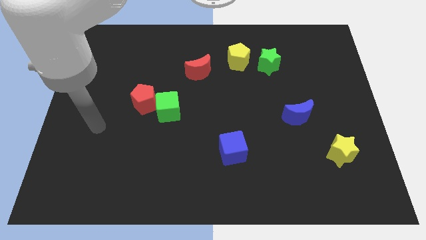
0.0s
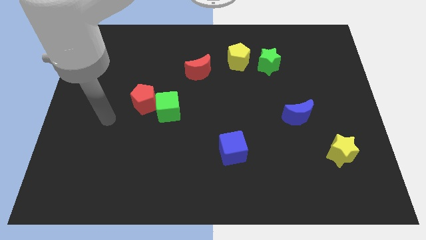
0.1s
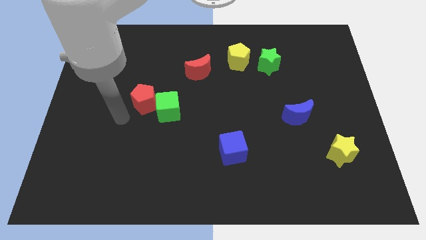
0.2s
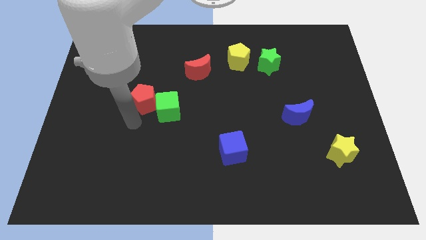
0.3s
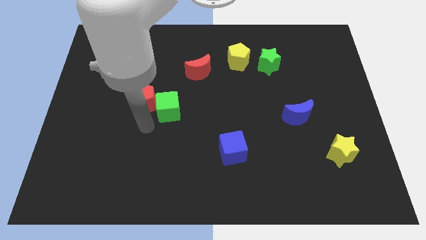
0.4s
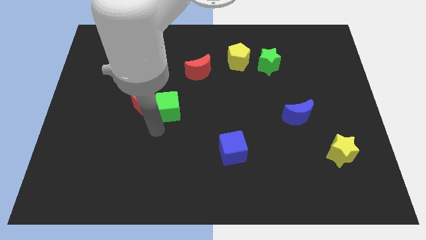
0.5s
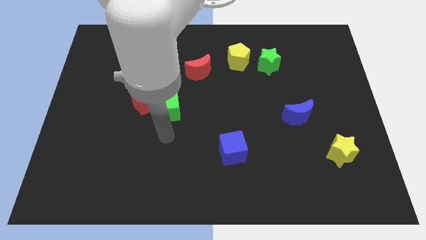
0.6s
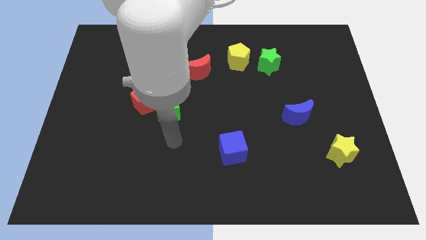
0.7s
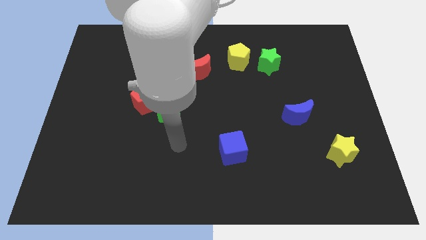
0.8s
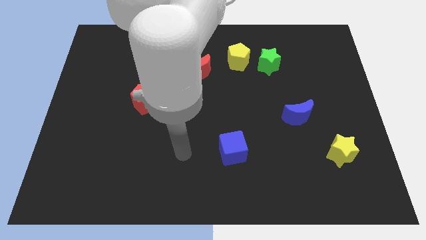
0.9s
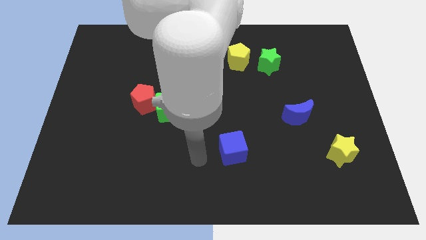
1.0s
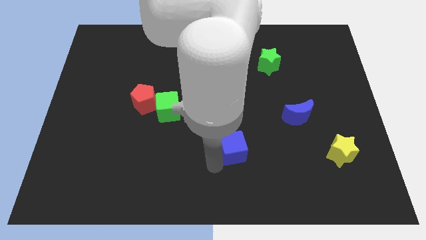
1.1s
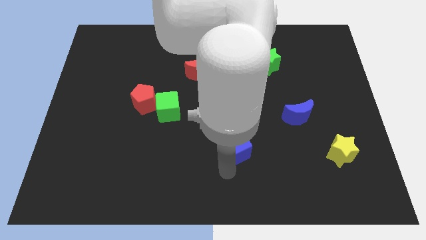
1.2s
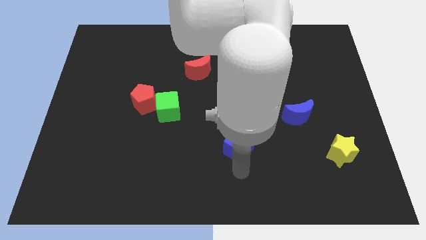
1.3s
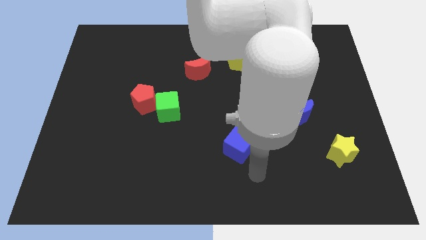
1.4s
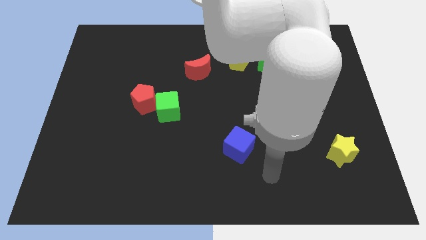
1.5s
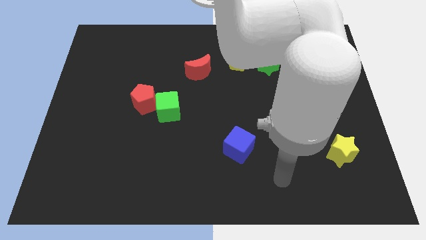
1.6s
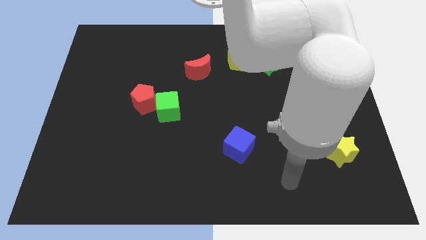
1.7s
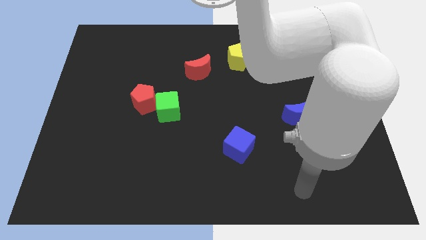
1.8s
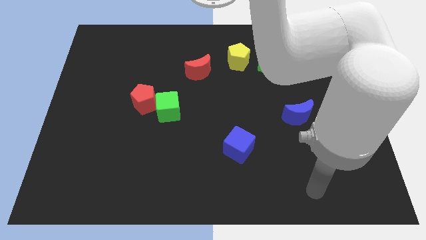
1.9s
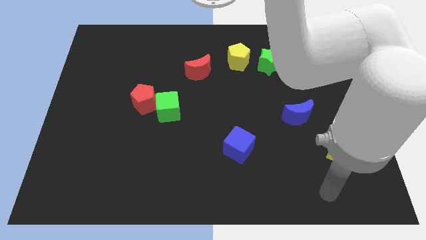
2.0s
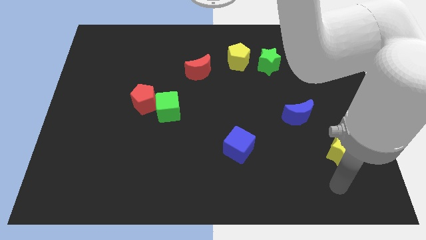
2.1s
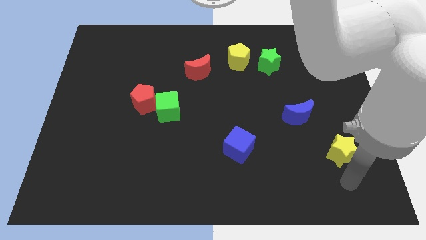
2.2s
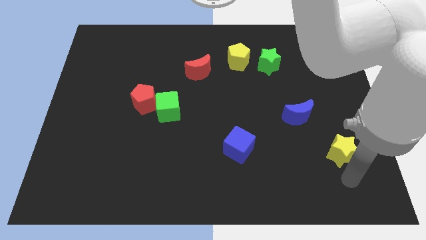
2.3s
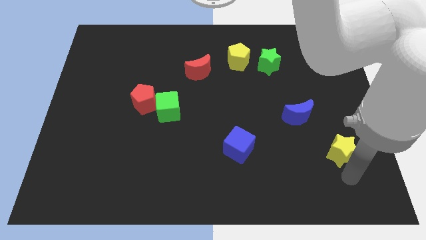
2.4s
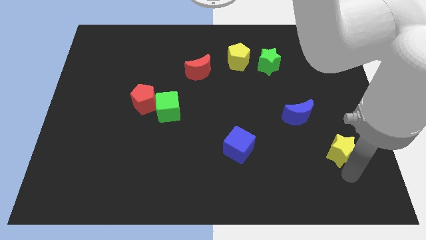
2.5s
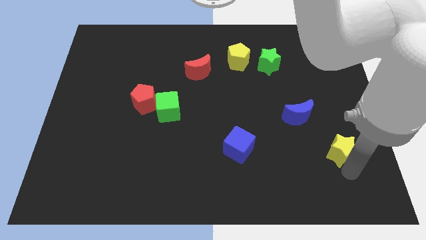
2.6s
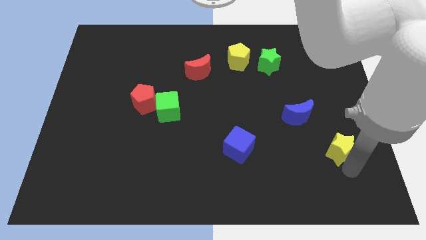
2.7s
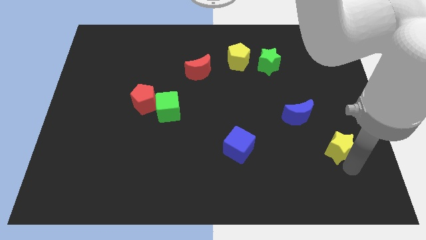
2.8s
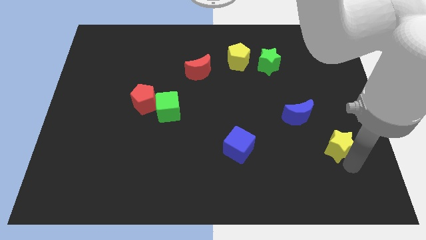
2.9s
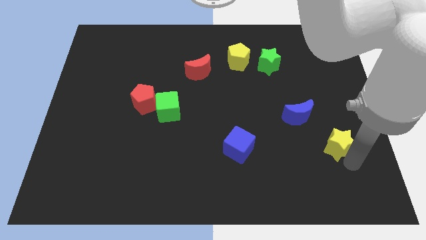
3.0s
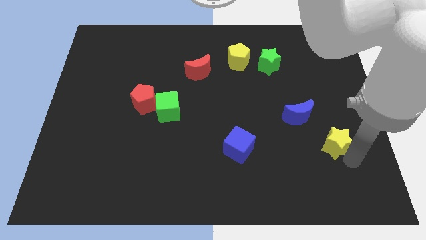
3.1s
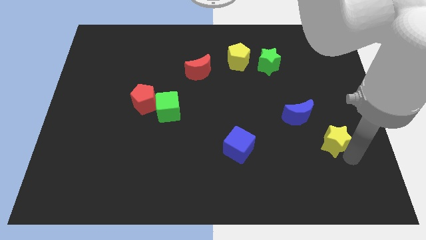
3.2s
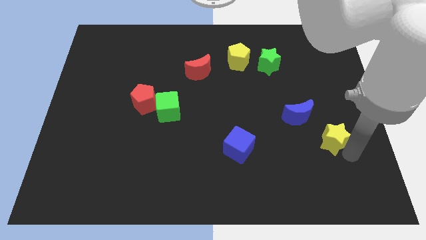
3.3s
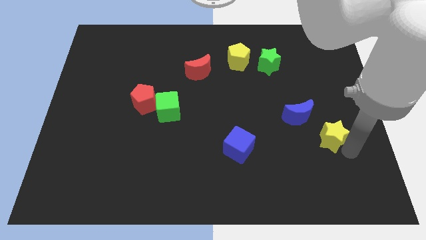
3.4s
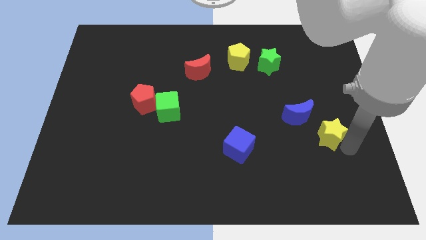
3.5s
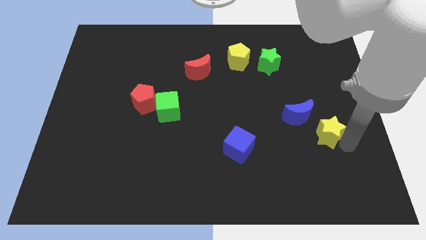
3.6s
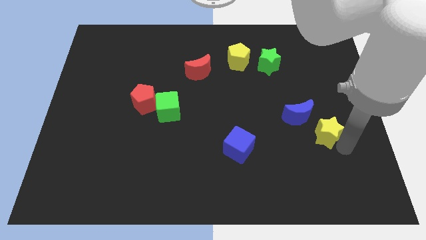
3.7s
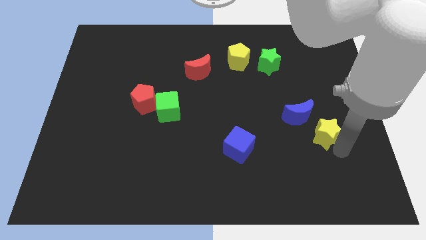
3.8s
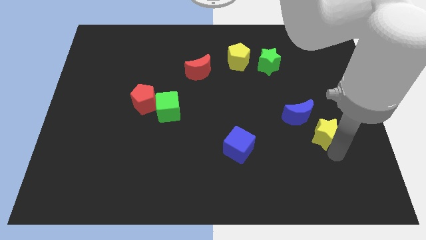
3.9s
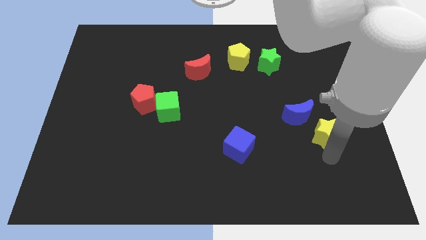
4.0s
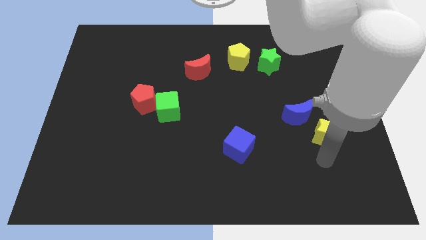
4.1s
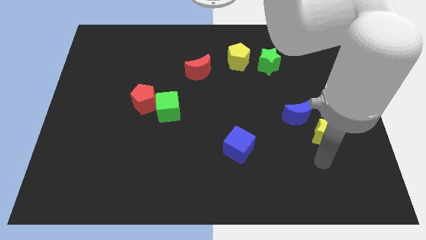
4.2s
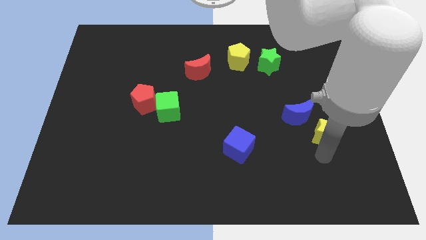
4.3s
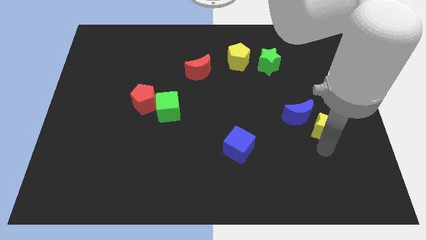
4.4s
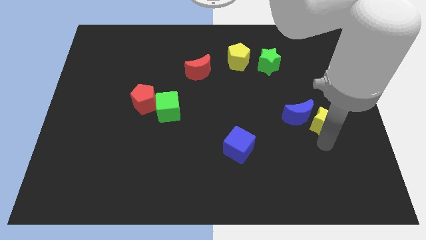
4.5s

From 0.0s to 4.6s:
push the yellow star up a little

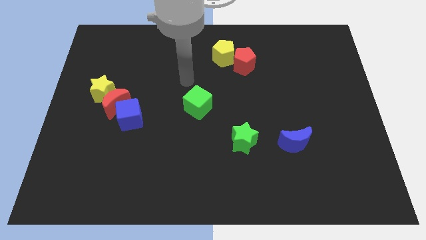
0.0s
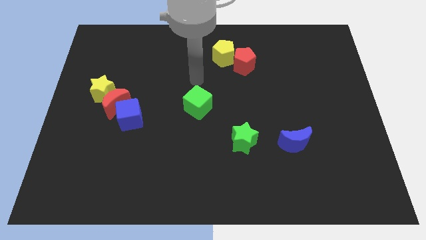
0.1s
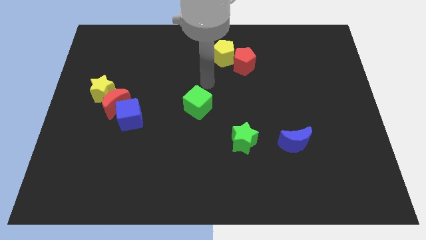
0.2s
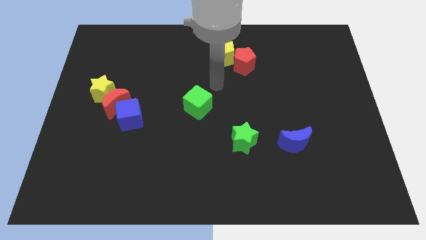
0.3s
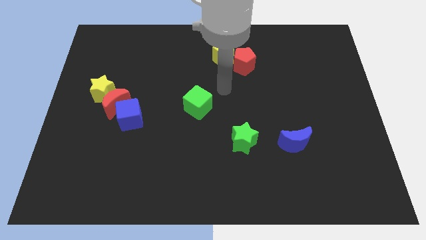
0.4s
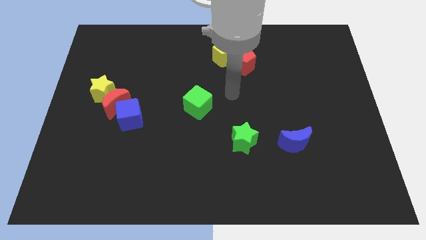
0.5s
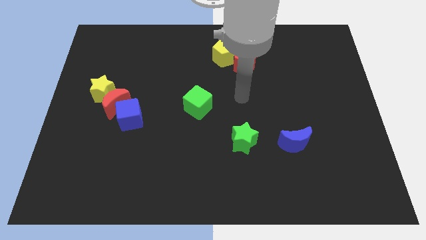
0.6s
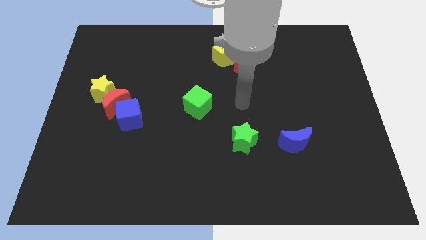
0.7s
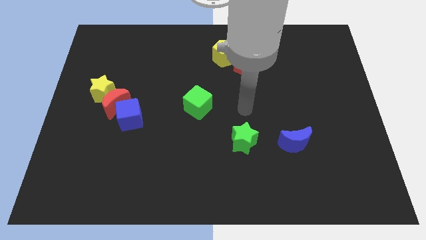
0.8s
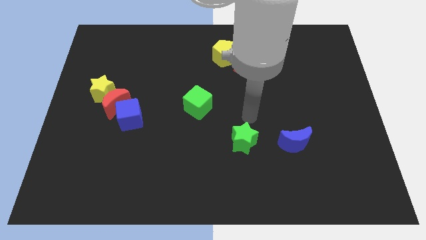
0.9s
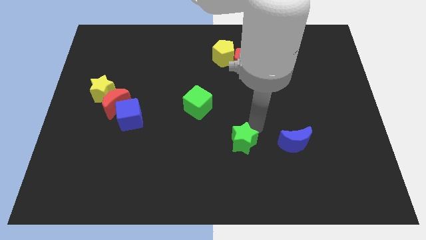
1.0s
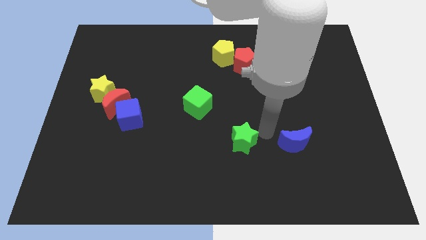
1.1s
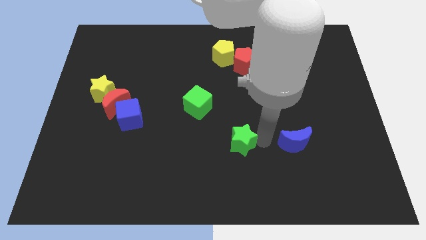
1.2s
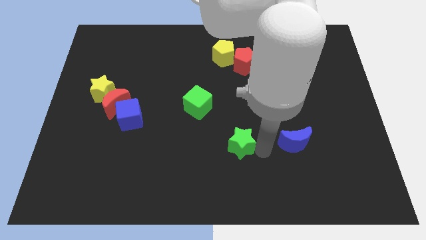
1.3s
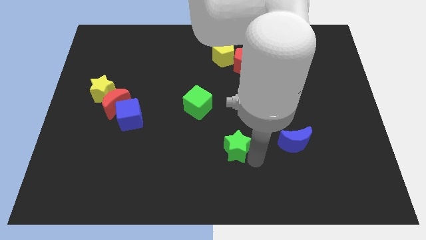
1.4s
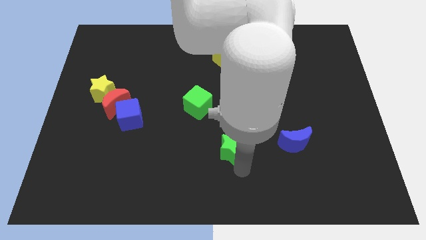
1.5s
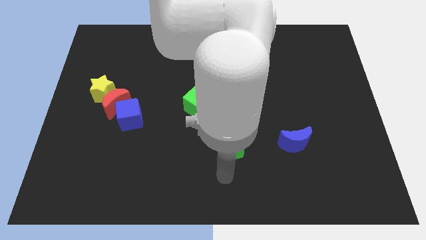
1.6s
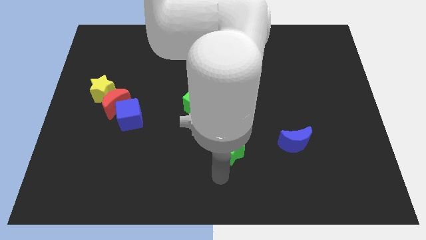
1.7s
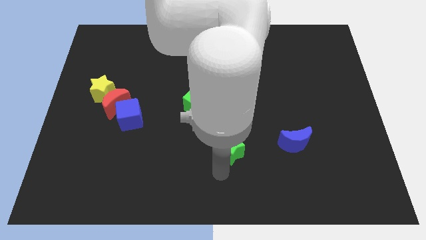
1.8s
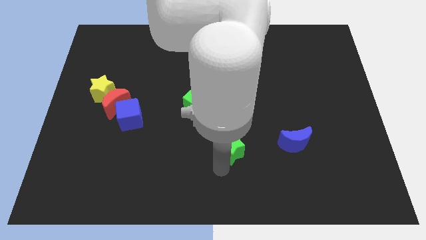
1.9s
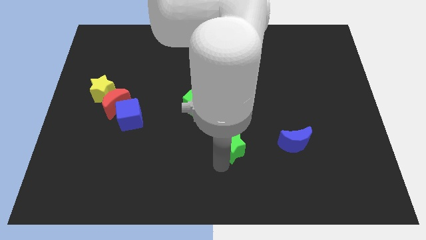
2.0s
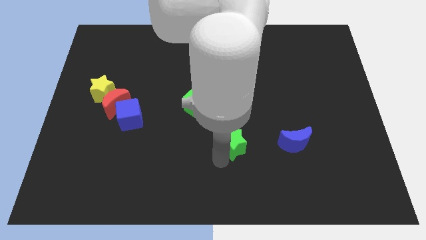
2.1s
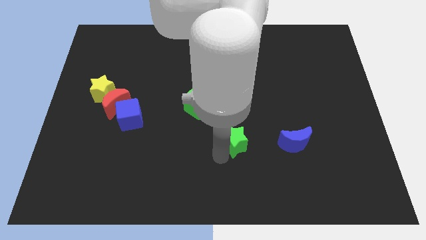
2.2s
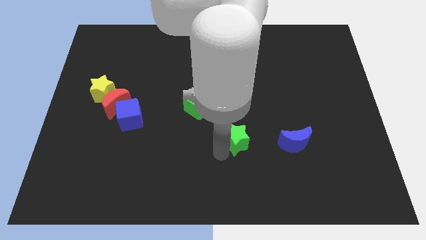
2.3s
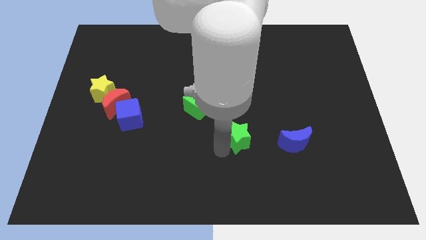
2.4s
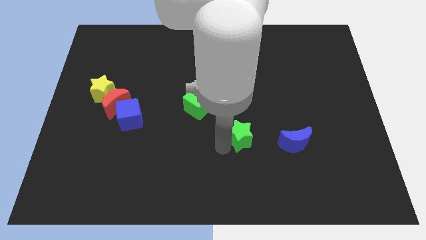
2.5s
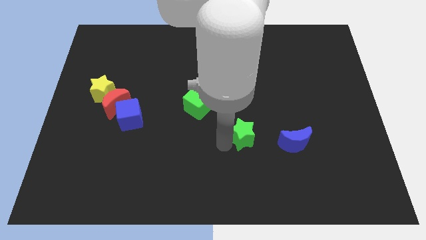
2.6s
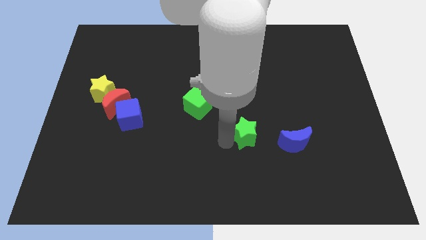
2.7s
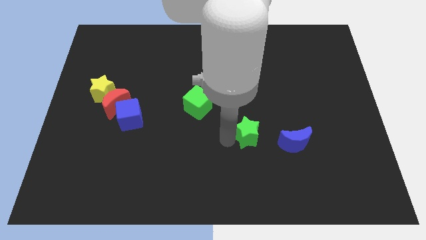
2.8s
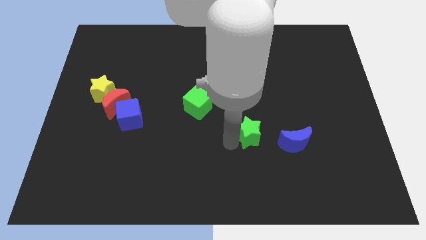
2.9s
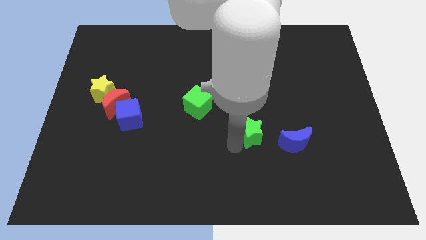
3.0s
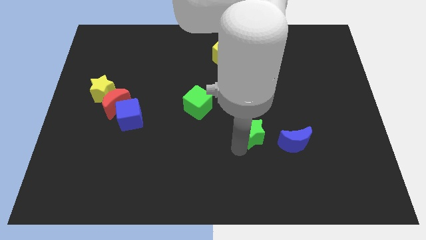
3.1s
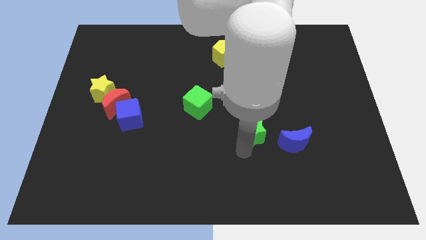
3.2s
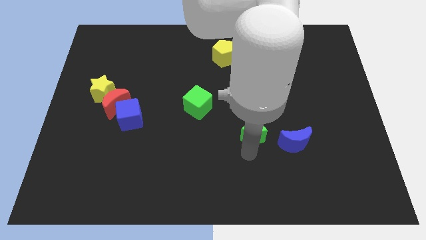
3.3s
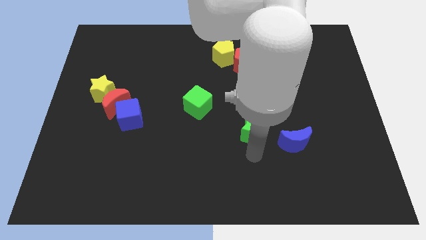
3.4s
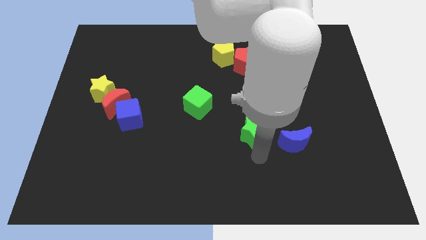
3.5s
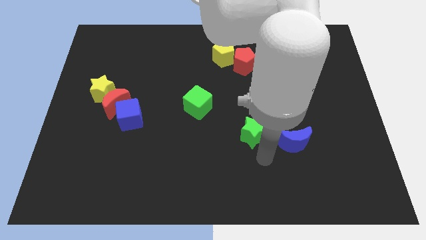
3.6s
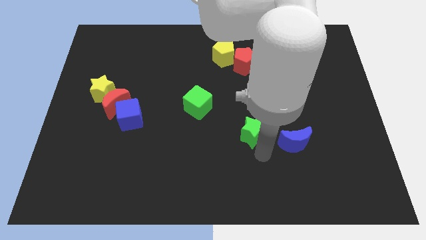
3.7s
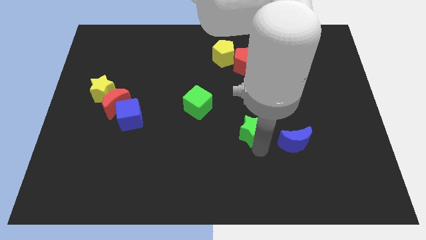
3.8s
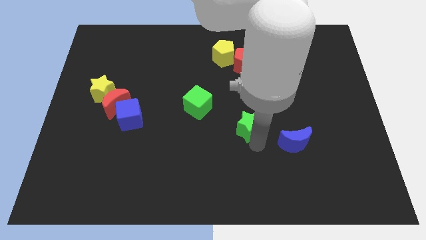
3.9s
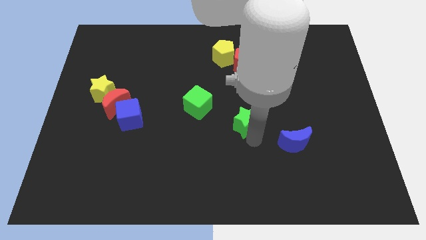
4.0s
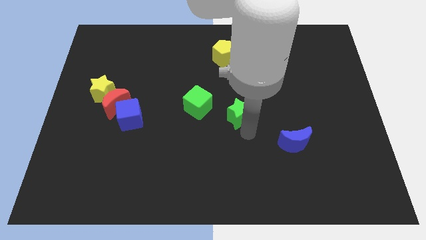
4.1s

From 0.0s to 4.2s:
move the green star upwards a little bit
